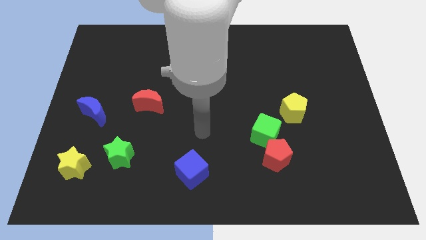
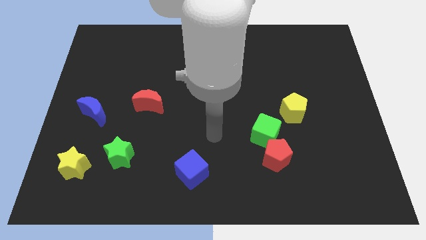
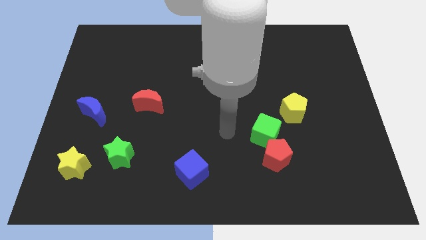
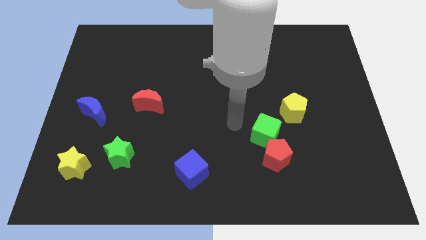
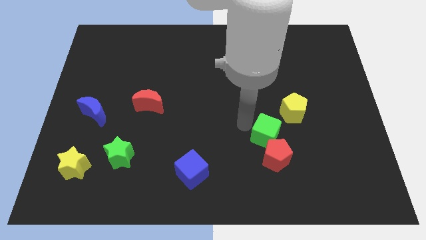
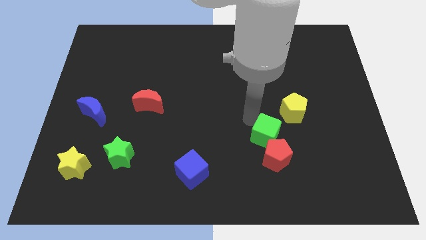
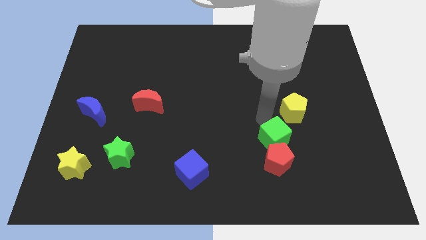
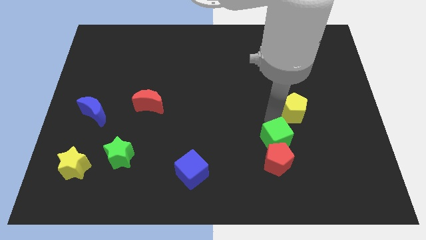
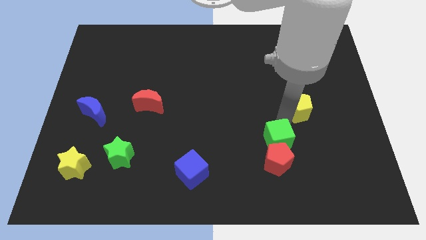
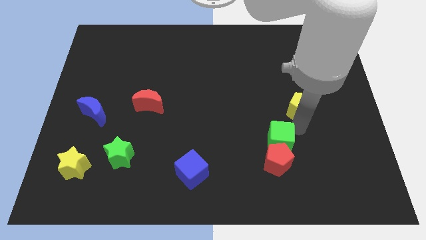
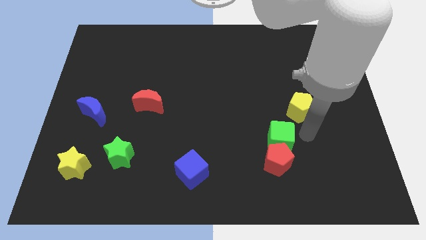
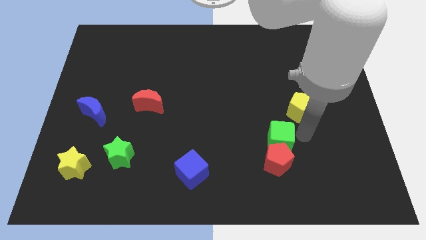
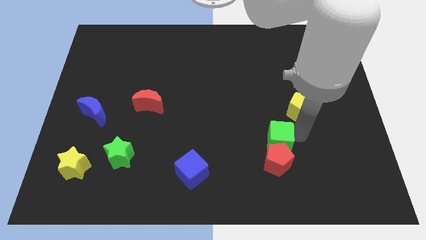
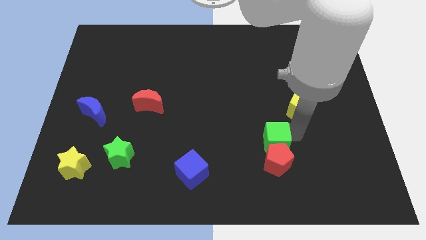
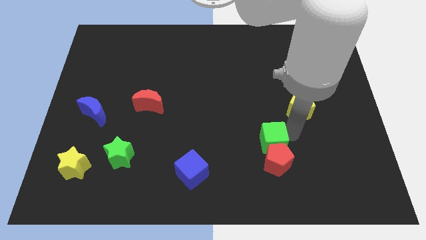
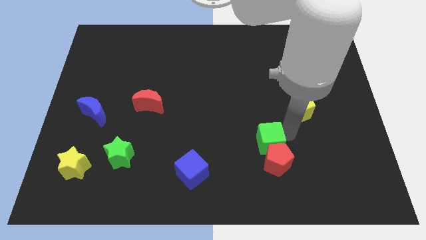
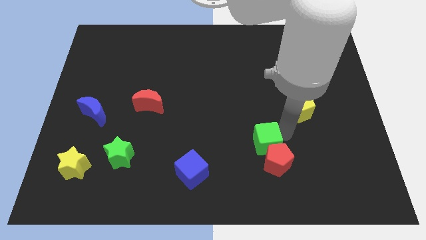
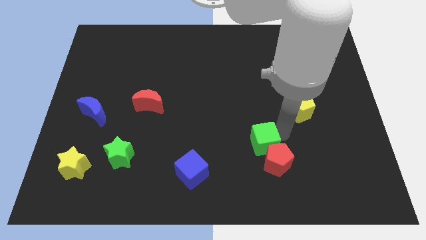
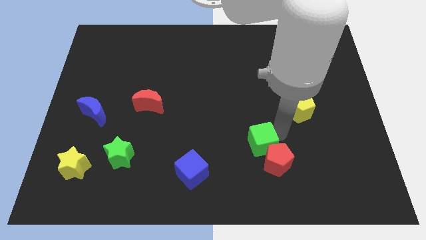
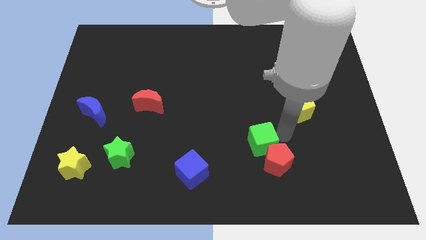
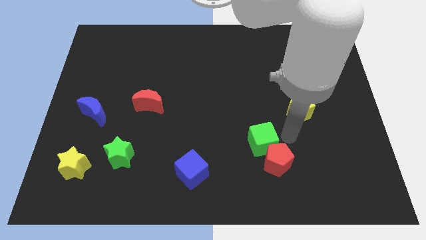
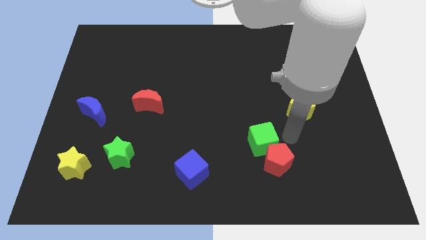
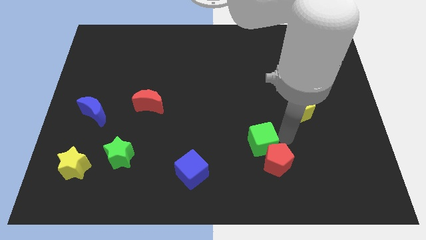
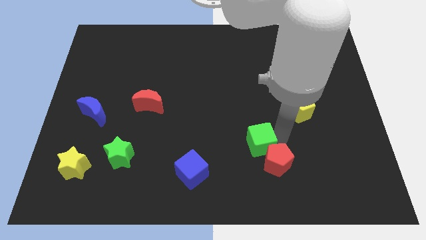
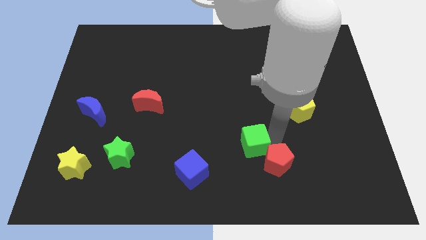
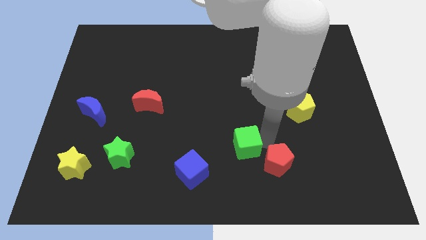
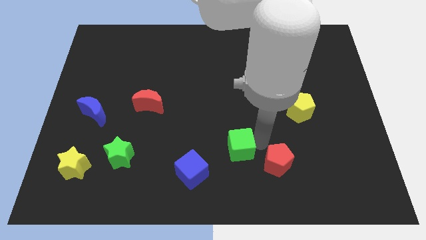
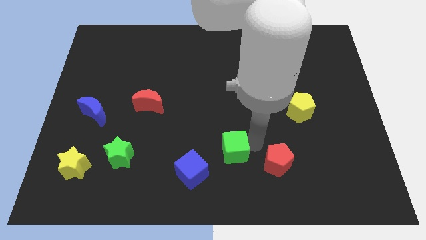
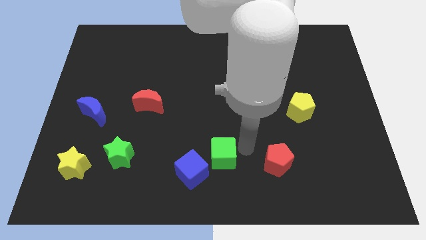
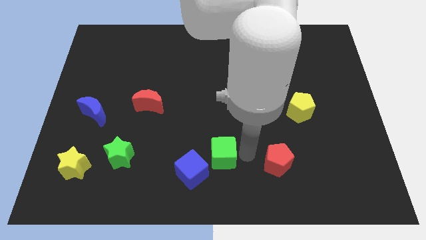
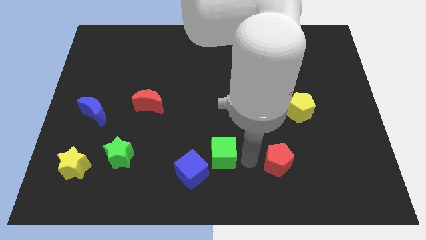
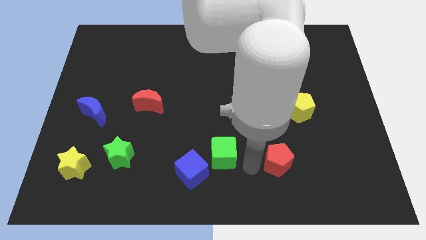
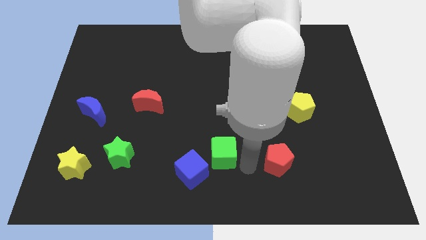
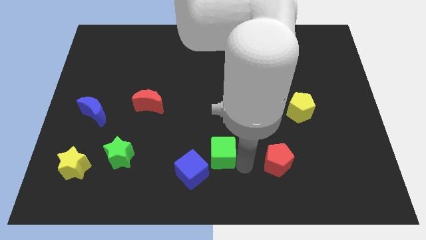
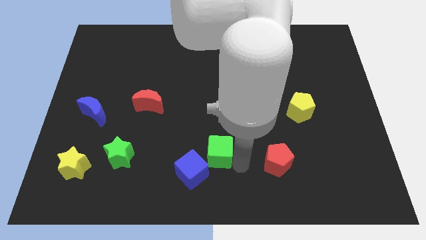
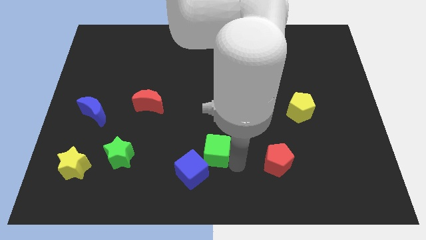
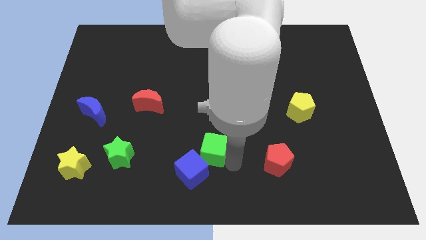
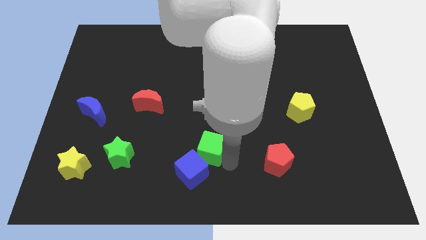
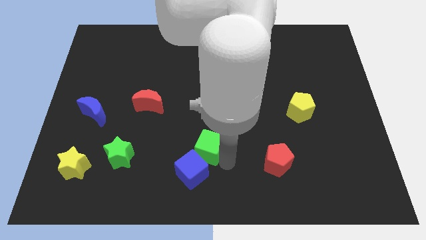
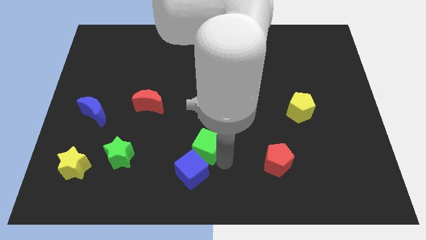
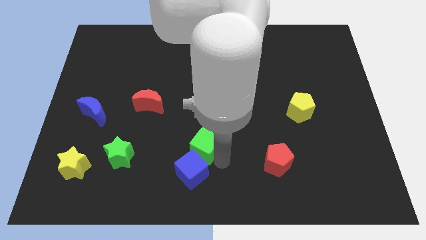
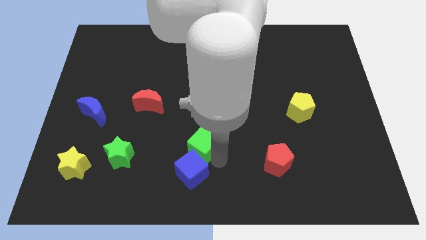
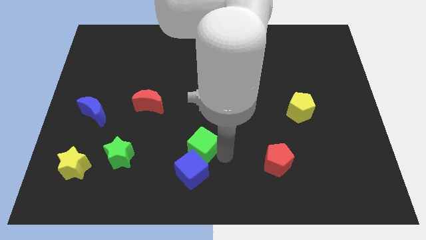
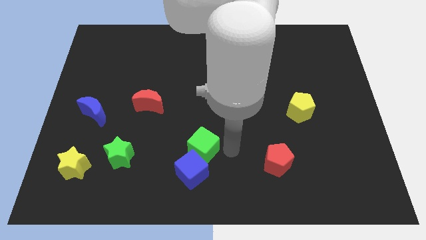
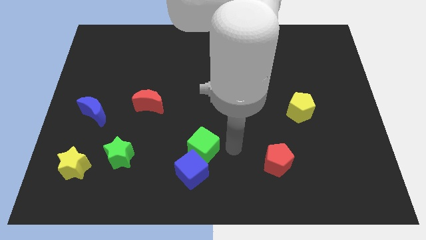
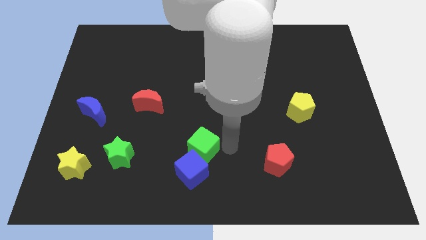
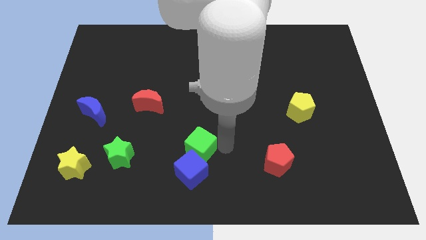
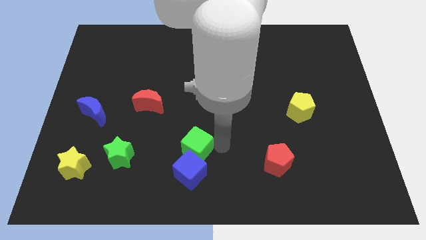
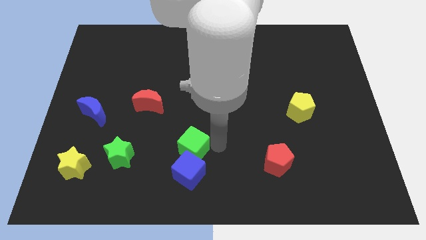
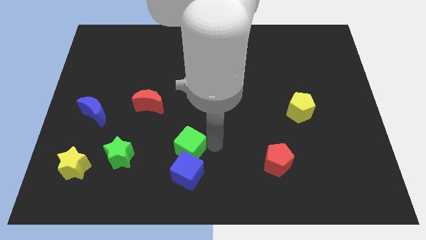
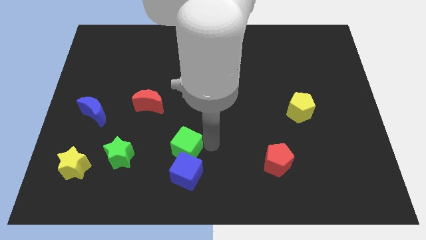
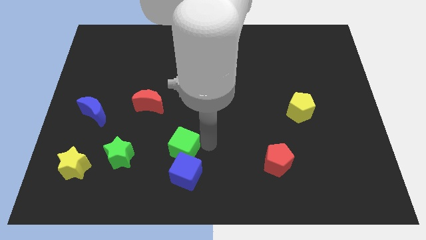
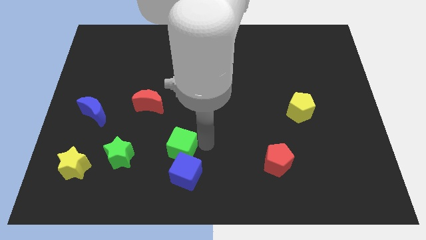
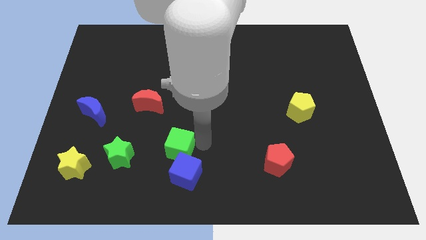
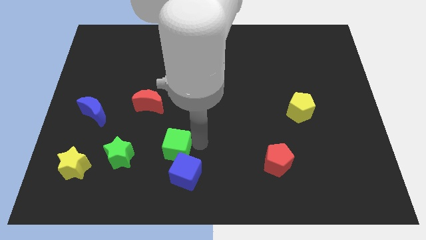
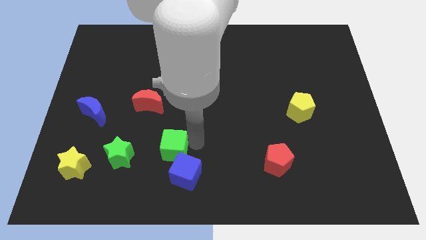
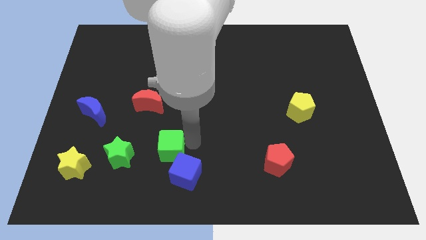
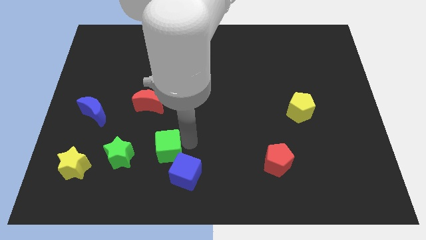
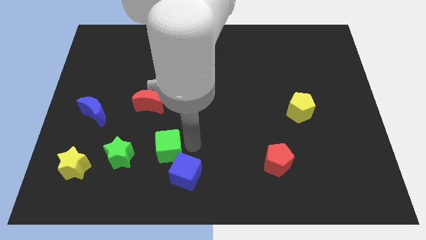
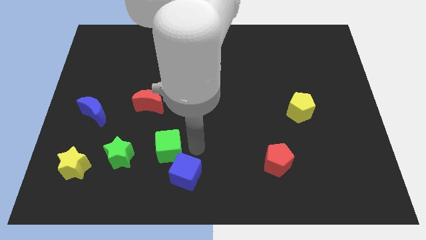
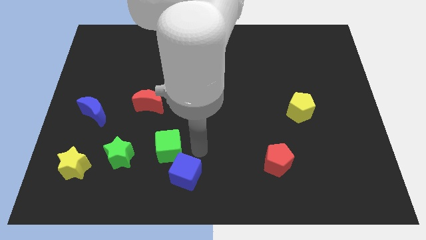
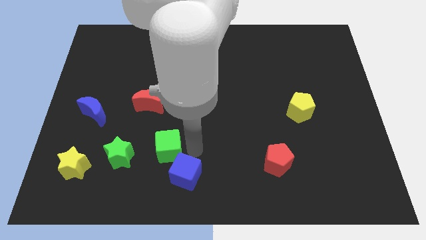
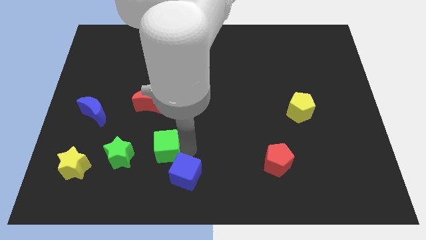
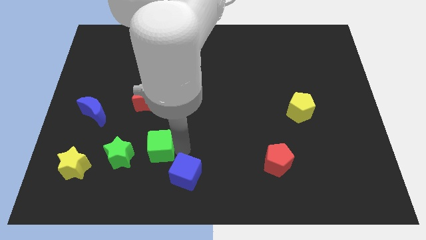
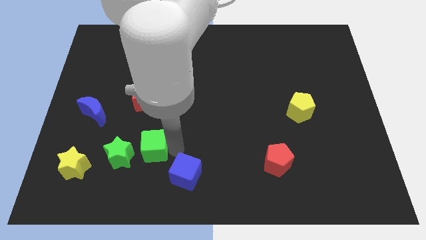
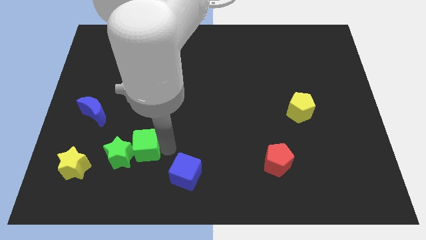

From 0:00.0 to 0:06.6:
slide the green cube close to the green star
